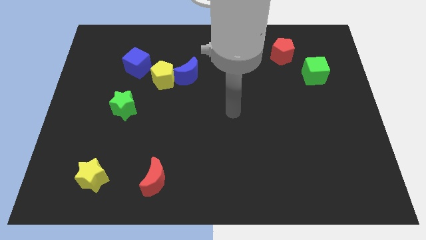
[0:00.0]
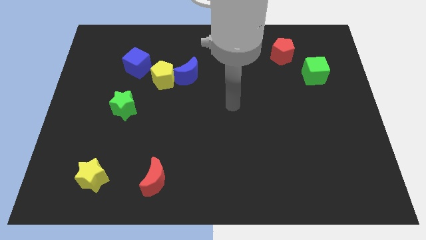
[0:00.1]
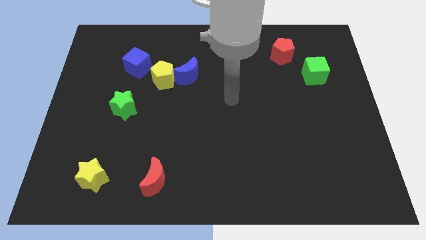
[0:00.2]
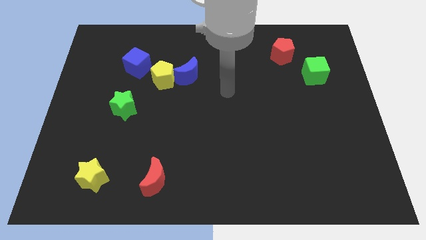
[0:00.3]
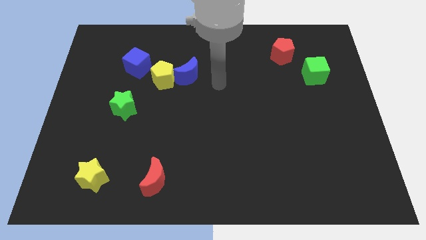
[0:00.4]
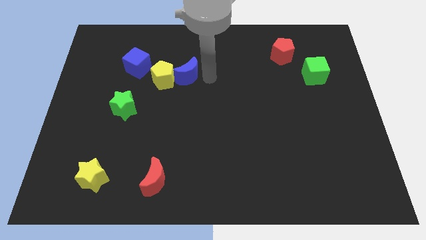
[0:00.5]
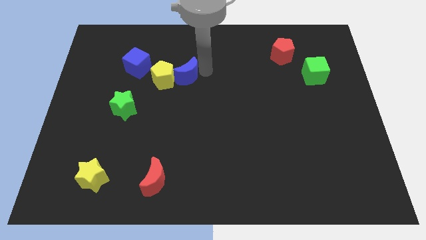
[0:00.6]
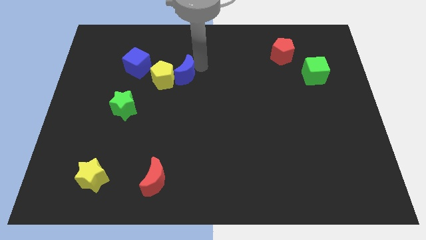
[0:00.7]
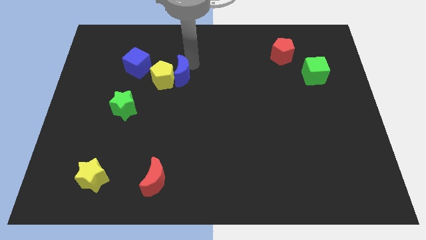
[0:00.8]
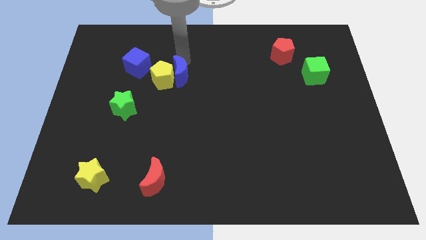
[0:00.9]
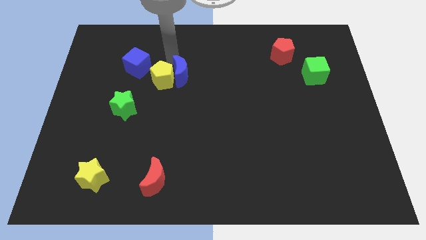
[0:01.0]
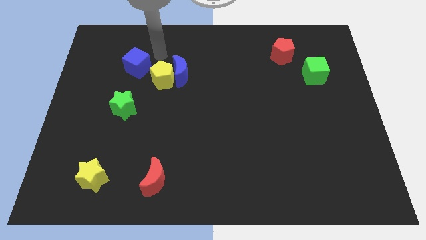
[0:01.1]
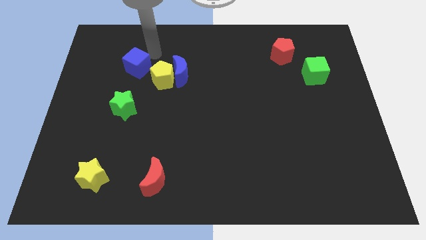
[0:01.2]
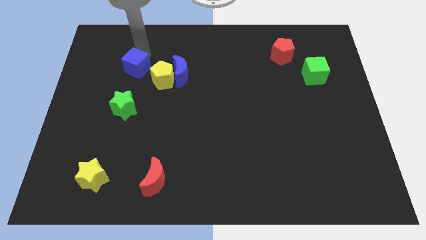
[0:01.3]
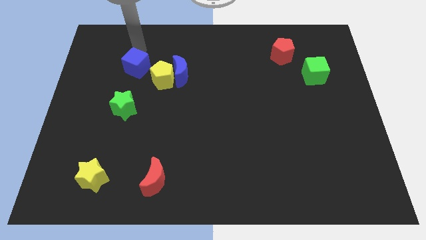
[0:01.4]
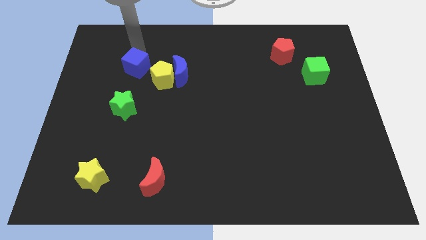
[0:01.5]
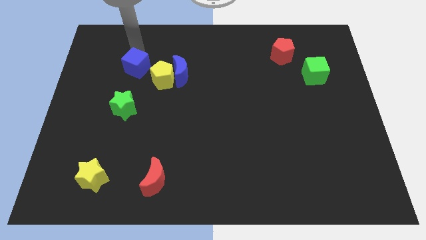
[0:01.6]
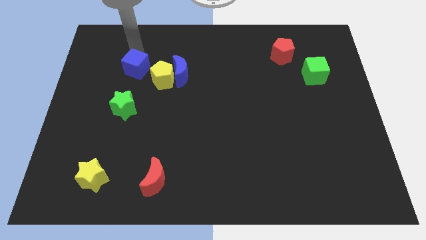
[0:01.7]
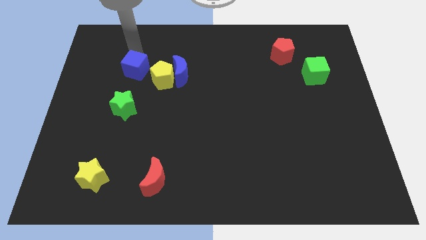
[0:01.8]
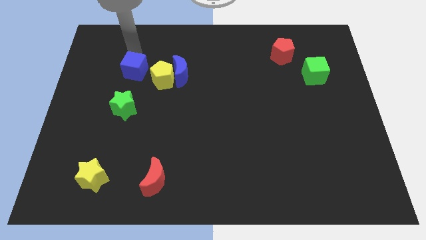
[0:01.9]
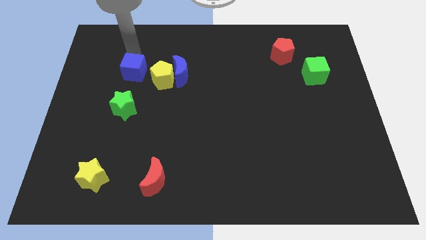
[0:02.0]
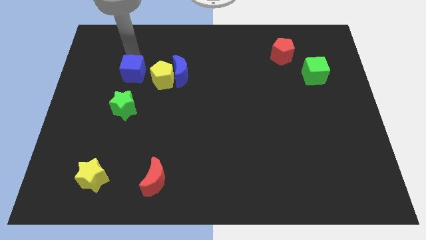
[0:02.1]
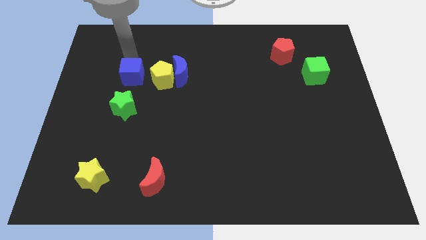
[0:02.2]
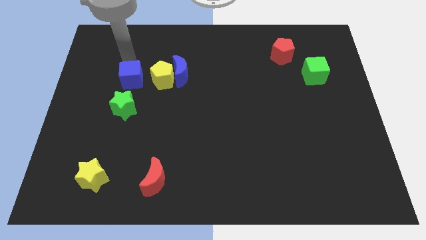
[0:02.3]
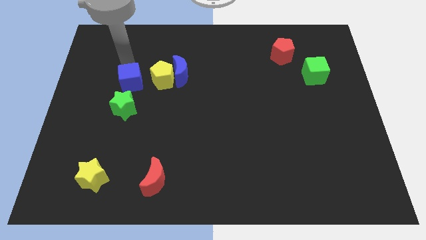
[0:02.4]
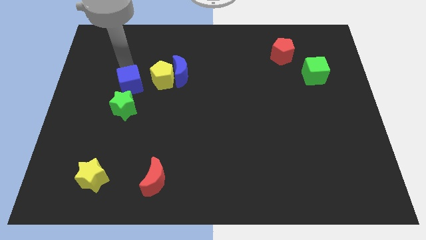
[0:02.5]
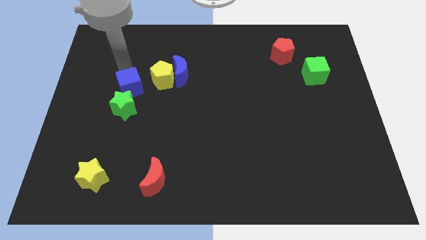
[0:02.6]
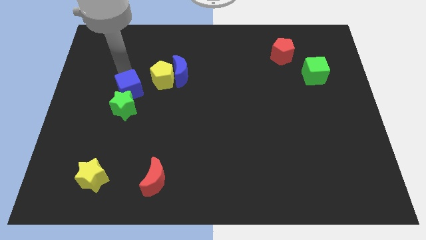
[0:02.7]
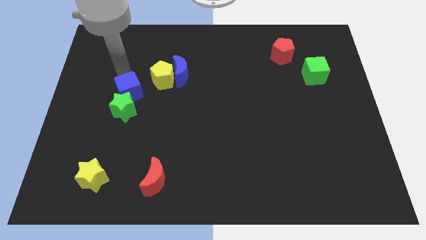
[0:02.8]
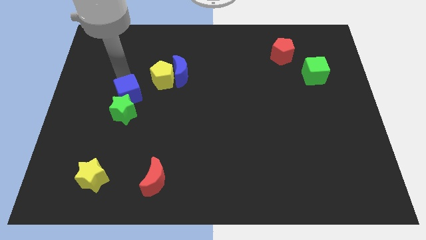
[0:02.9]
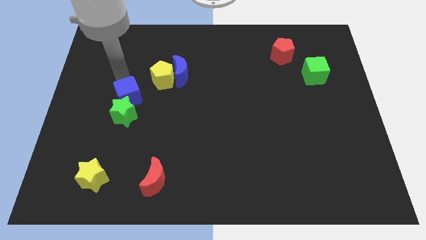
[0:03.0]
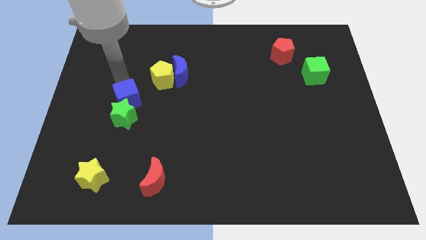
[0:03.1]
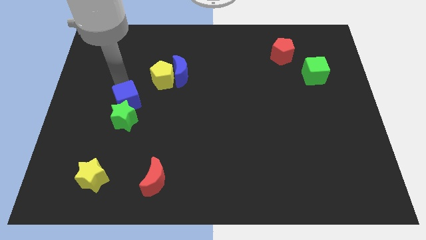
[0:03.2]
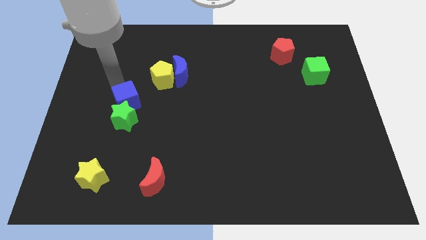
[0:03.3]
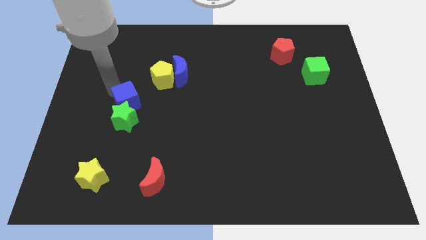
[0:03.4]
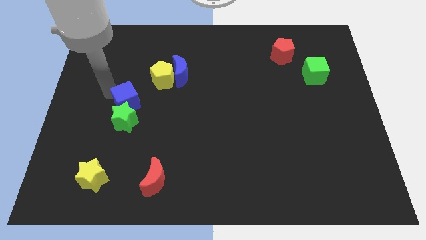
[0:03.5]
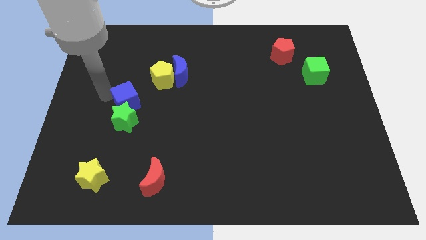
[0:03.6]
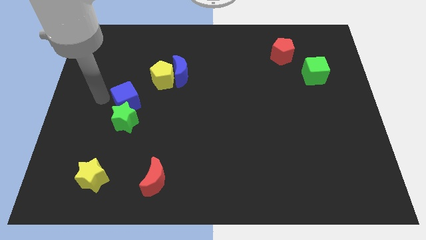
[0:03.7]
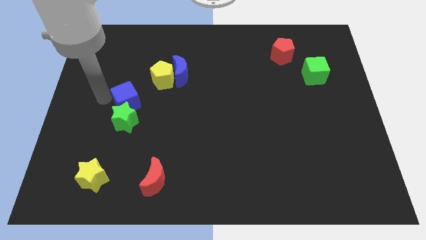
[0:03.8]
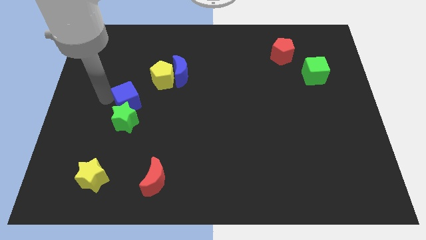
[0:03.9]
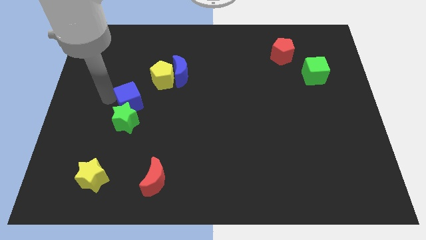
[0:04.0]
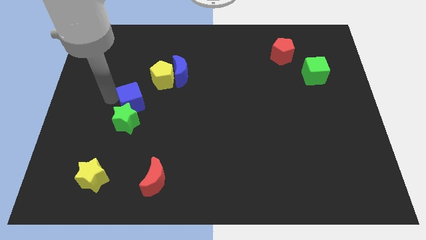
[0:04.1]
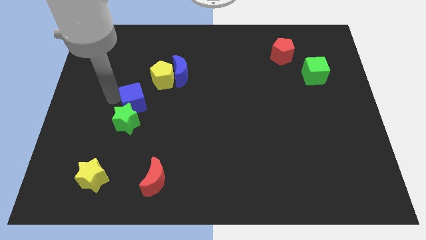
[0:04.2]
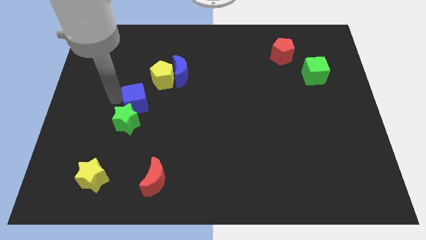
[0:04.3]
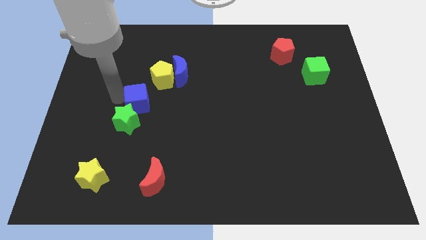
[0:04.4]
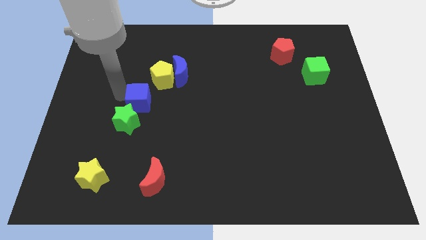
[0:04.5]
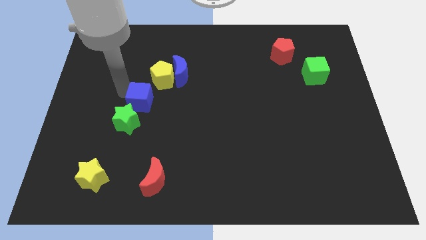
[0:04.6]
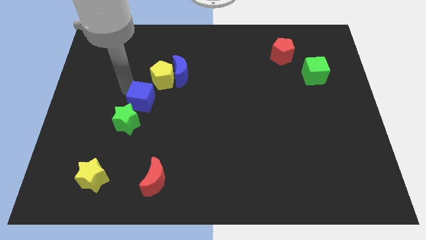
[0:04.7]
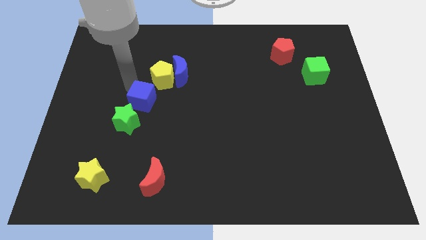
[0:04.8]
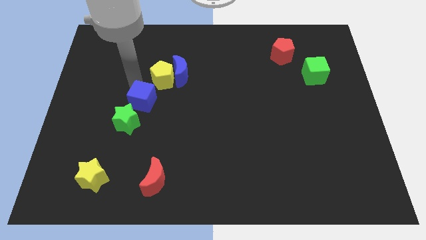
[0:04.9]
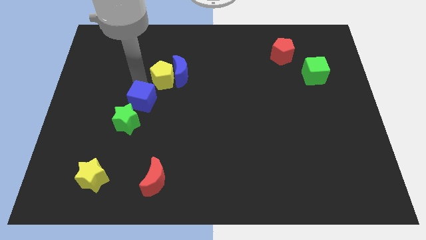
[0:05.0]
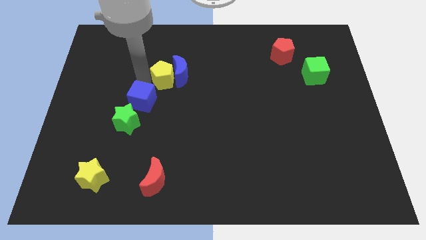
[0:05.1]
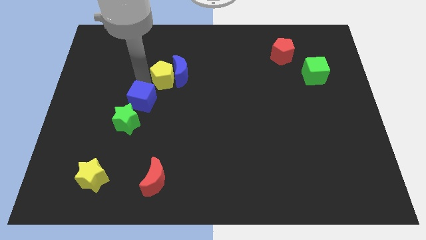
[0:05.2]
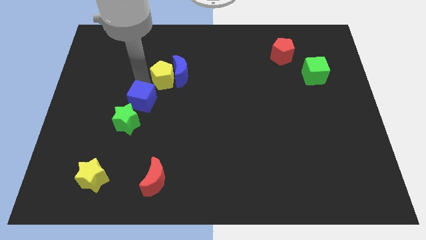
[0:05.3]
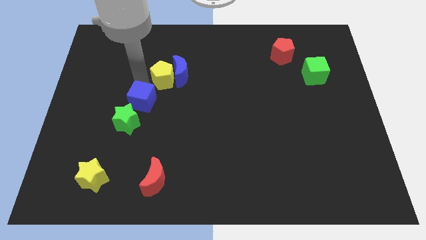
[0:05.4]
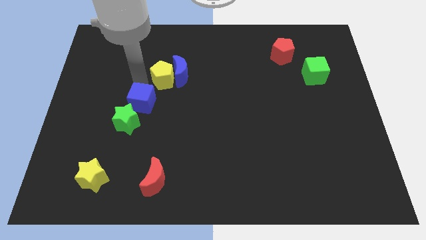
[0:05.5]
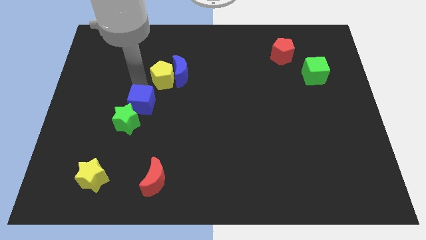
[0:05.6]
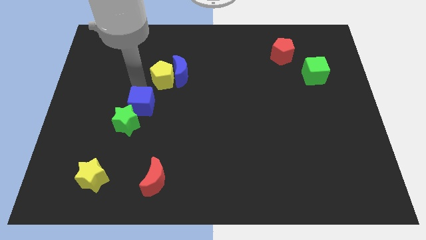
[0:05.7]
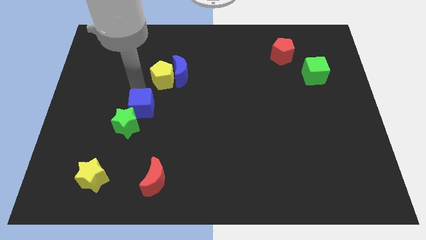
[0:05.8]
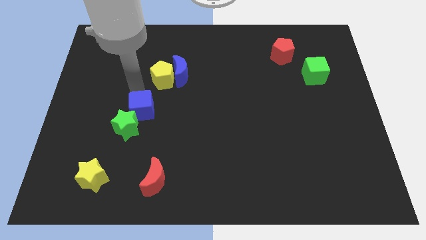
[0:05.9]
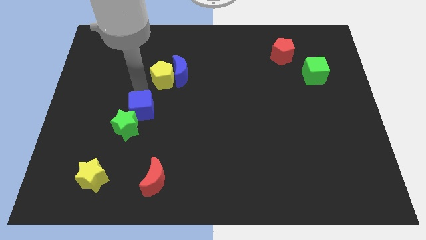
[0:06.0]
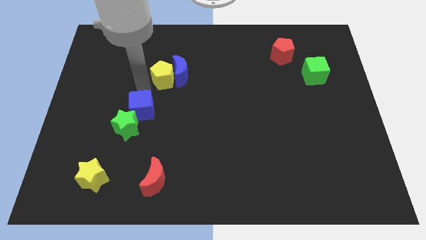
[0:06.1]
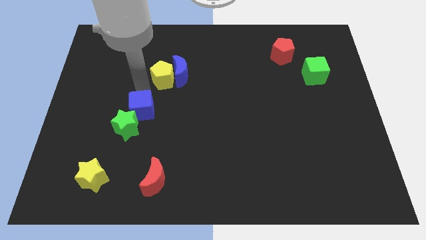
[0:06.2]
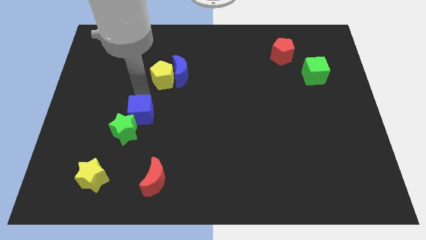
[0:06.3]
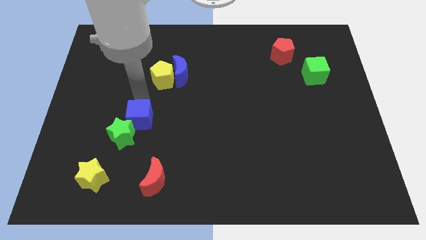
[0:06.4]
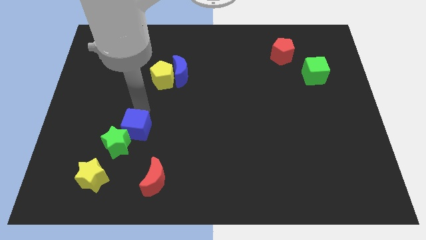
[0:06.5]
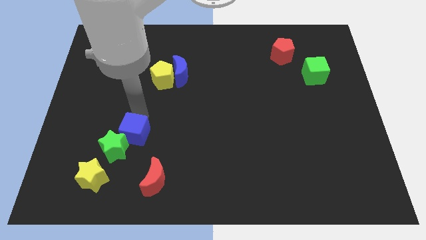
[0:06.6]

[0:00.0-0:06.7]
move the blue cube down

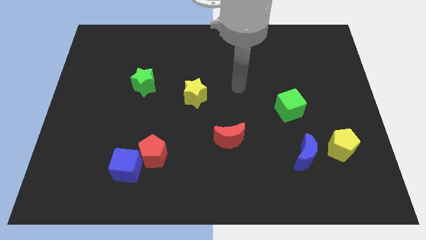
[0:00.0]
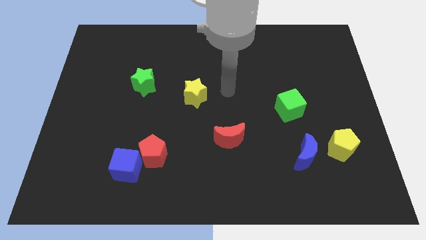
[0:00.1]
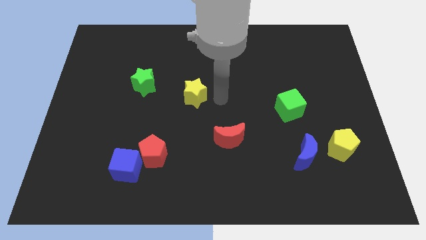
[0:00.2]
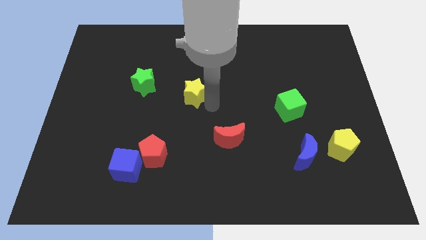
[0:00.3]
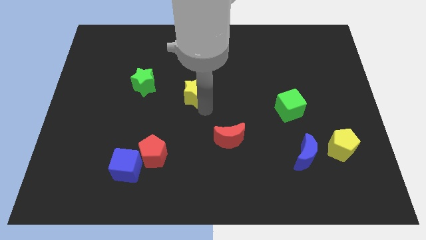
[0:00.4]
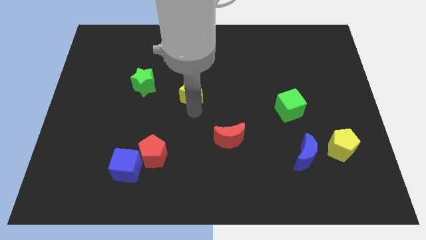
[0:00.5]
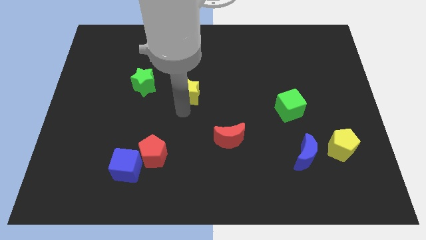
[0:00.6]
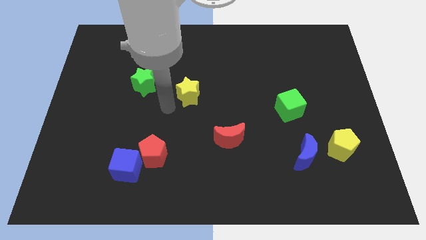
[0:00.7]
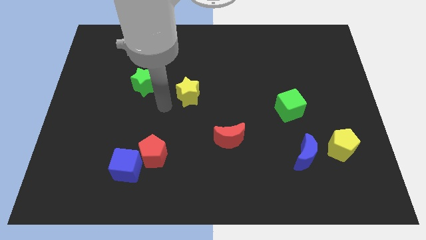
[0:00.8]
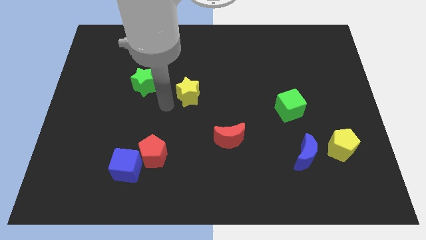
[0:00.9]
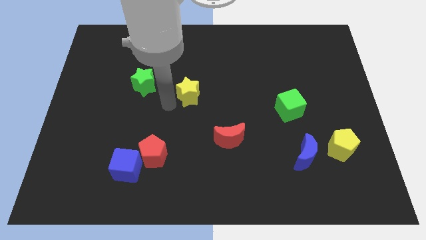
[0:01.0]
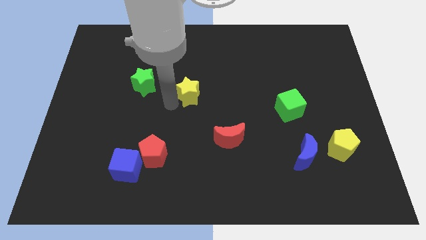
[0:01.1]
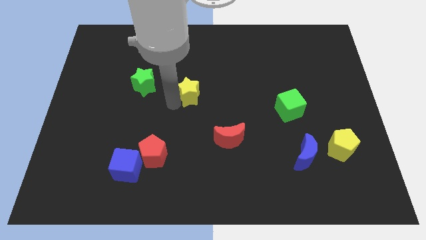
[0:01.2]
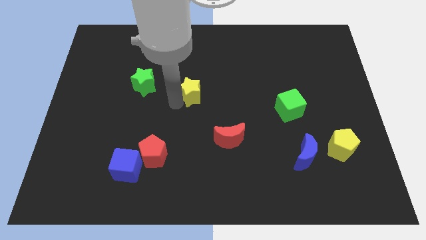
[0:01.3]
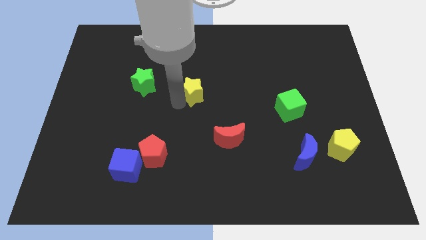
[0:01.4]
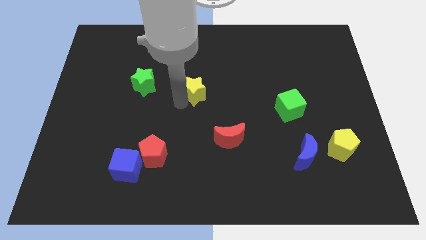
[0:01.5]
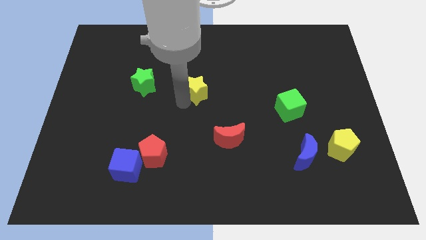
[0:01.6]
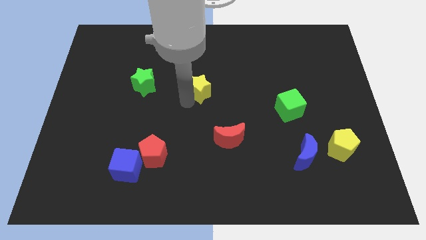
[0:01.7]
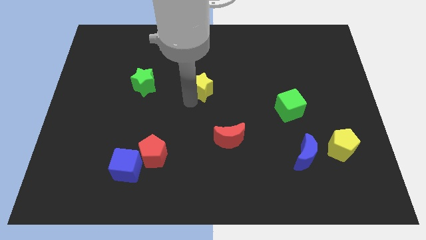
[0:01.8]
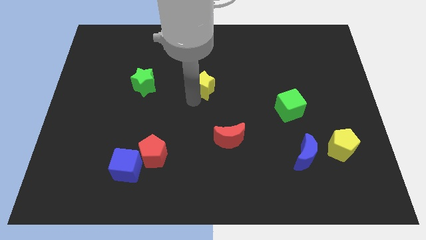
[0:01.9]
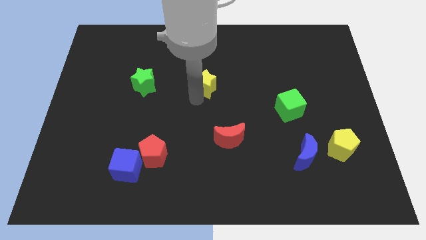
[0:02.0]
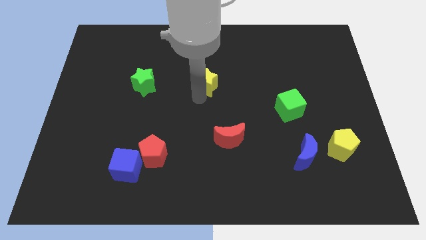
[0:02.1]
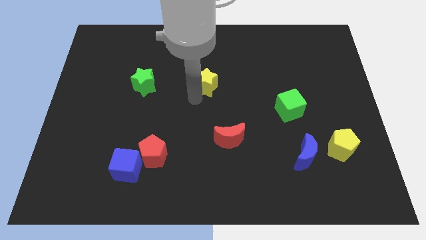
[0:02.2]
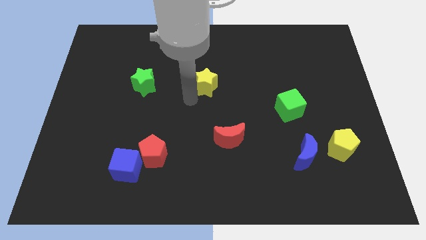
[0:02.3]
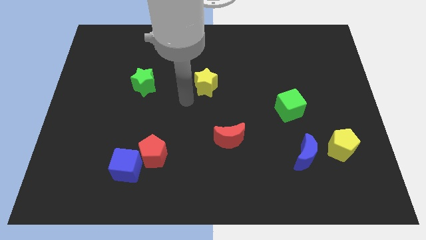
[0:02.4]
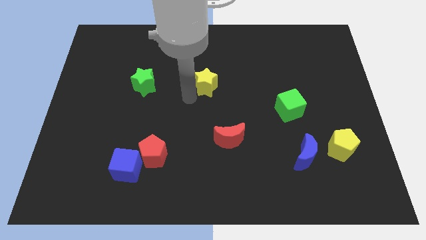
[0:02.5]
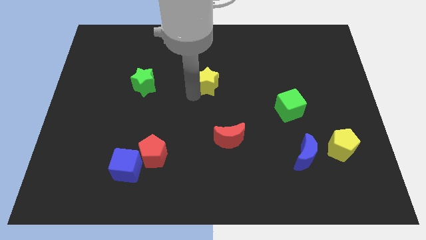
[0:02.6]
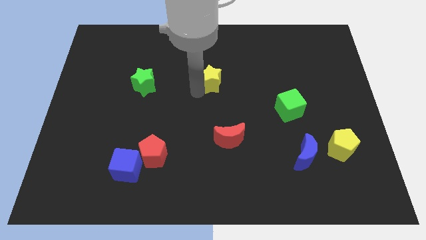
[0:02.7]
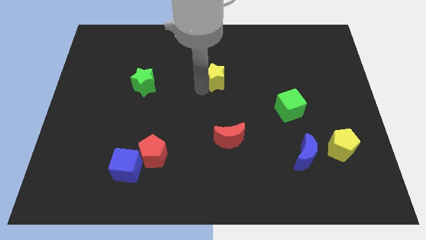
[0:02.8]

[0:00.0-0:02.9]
push the yellow star slightly up and then right
